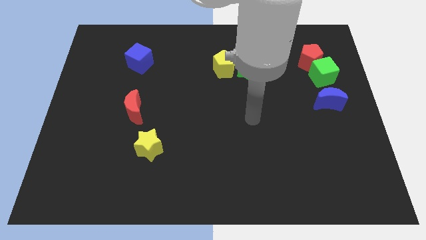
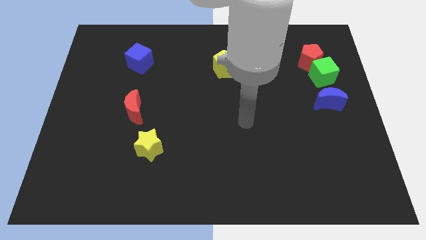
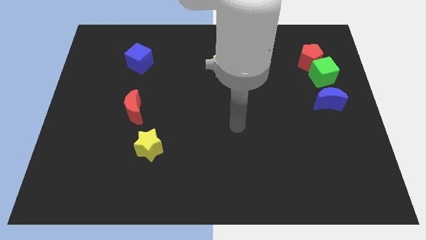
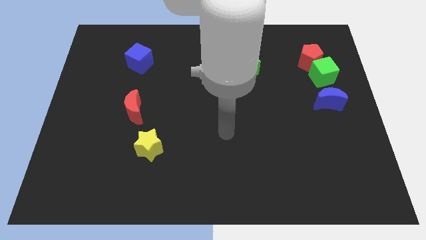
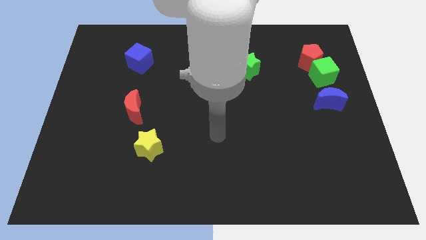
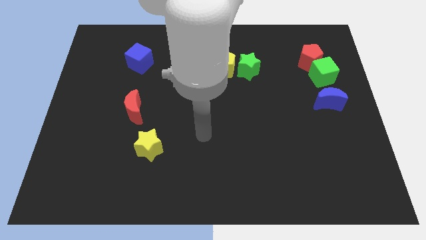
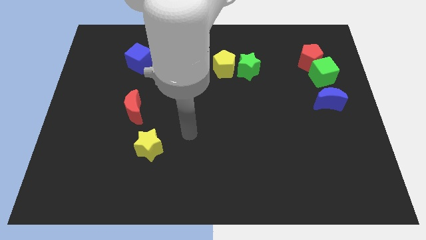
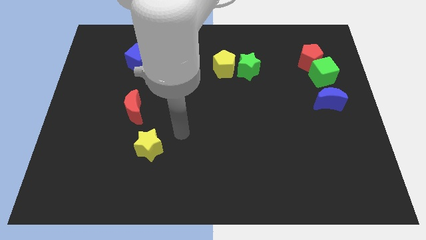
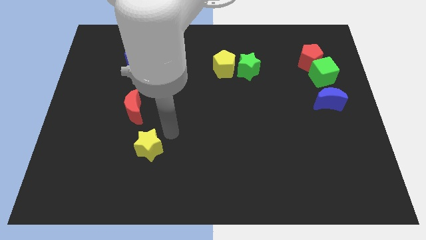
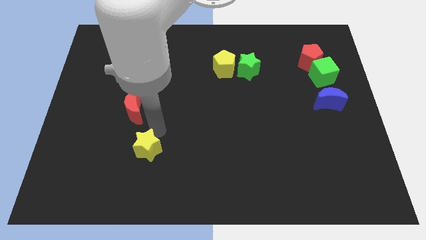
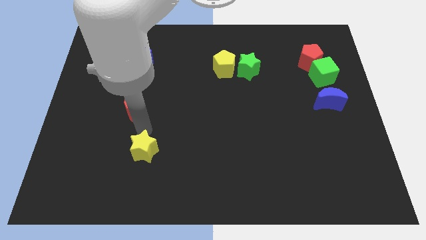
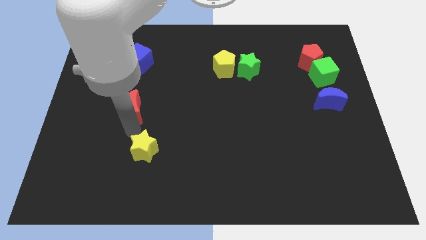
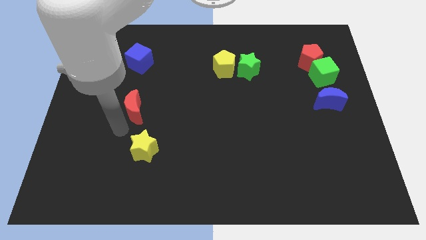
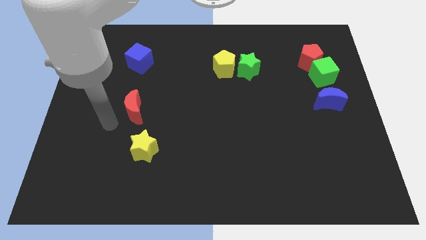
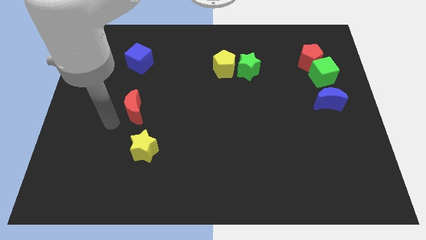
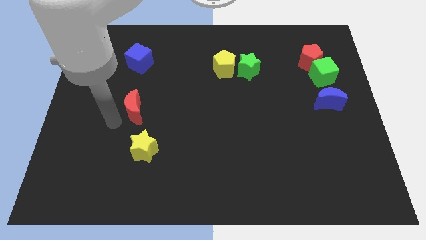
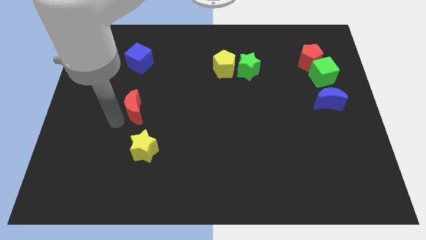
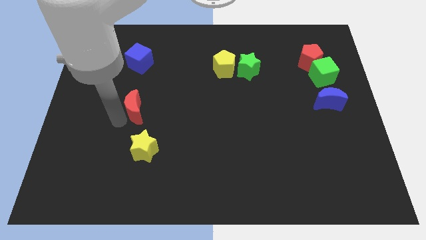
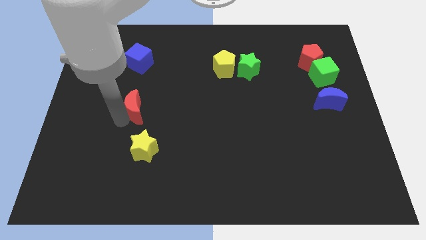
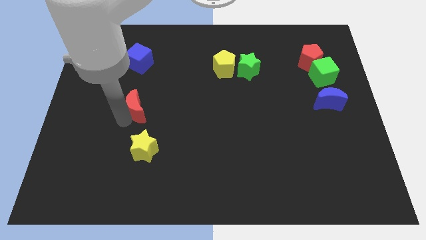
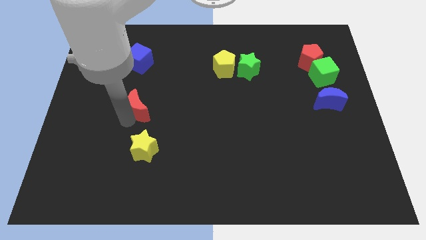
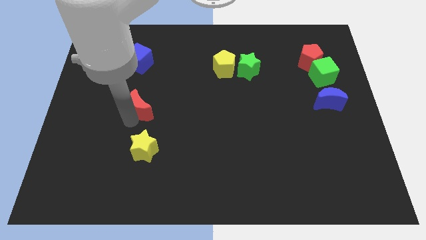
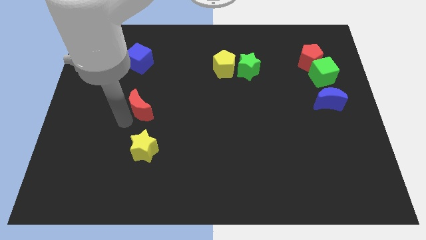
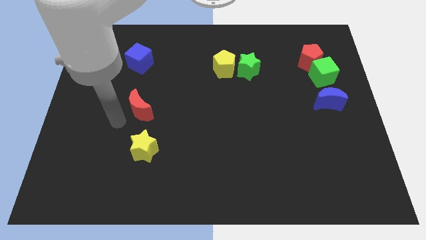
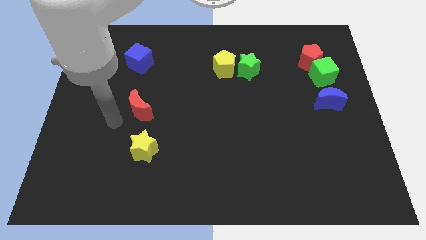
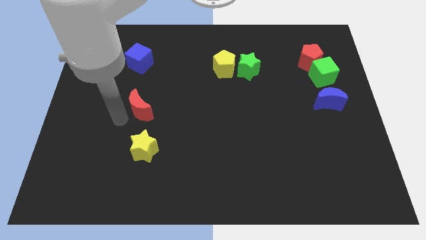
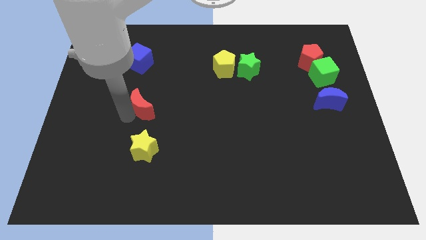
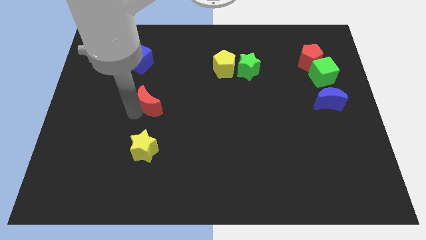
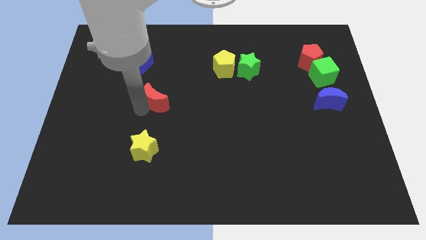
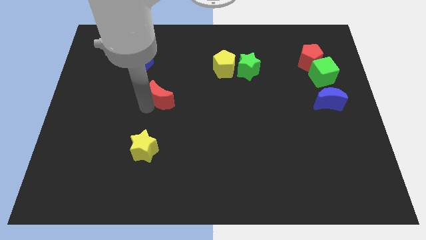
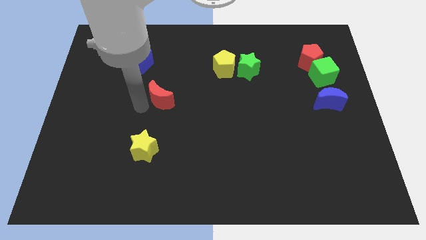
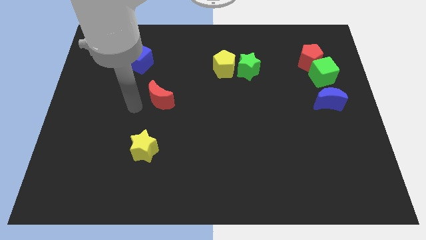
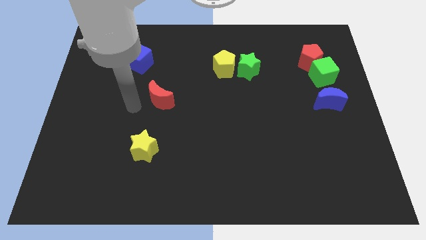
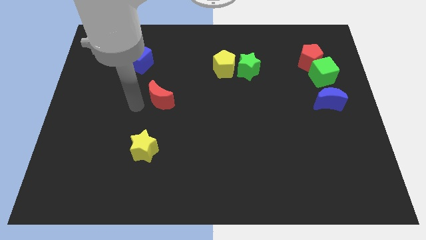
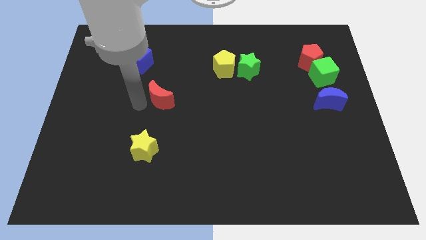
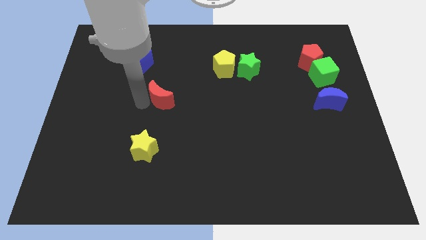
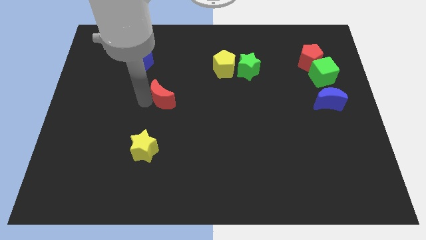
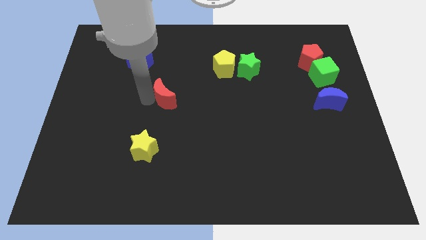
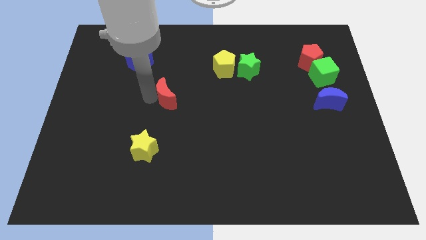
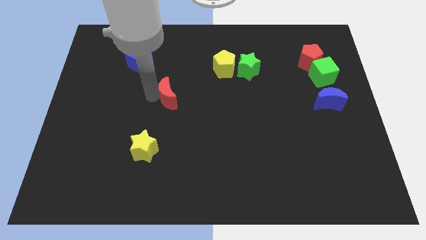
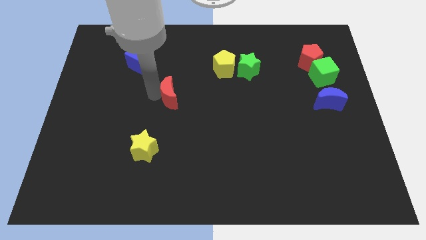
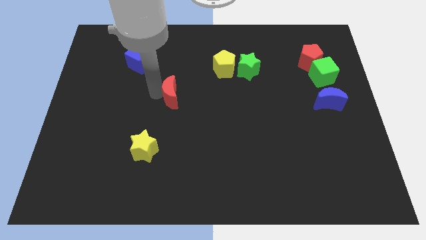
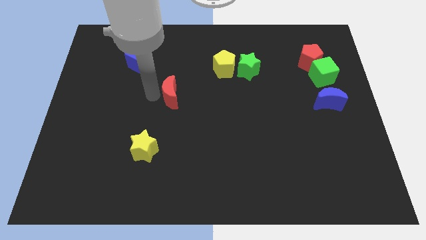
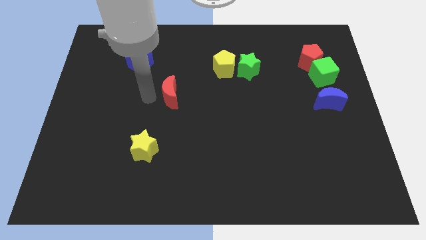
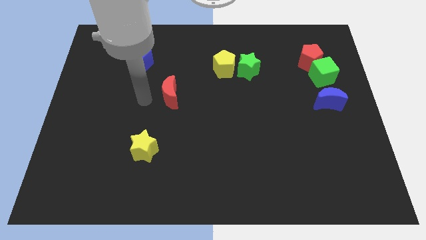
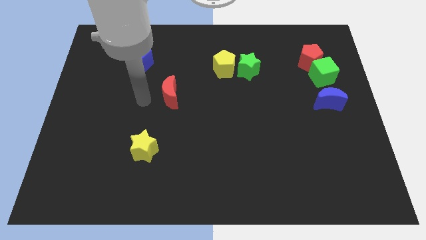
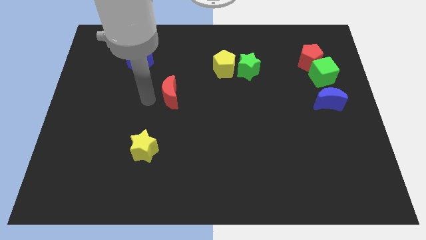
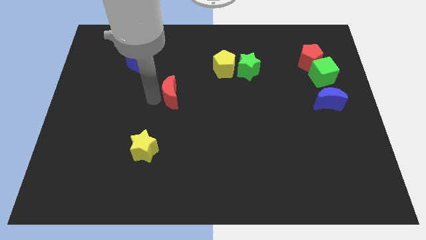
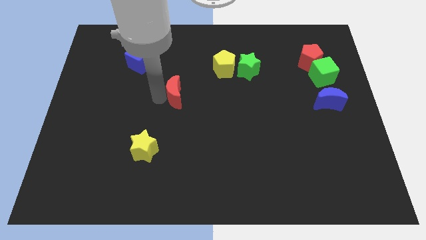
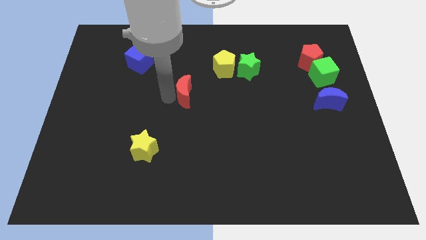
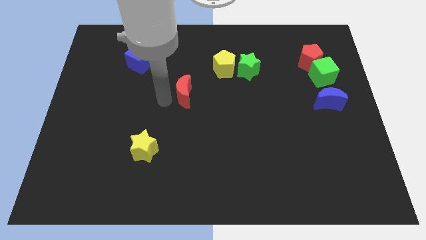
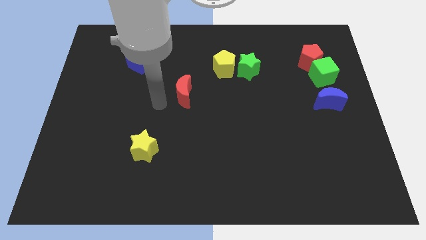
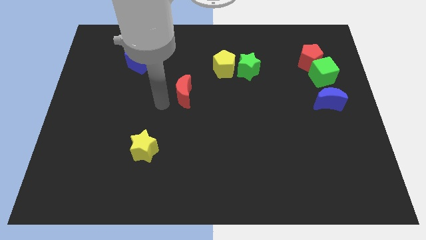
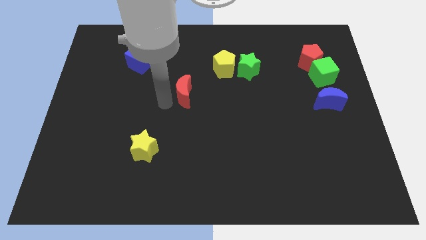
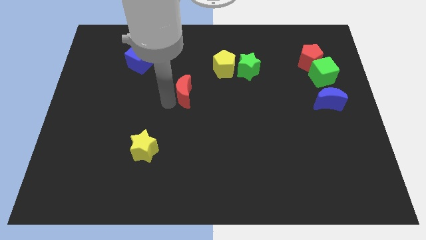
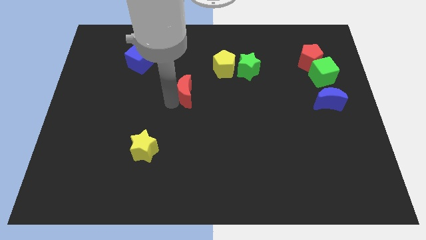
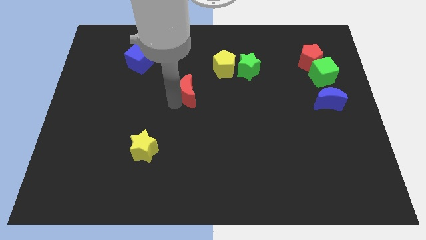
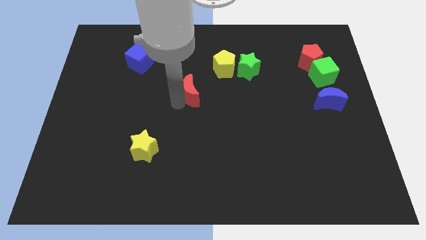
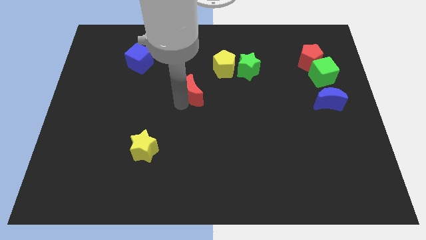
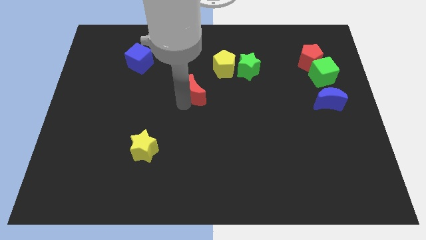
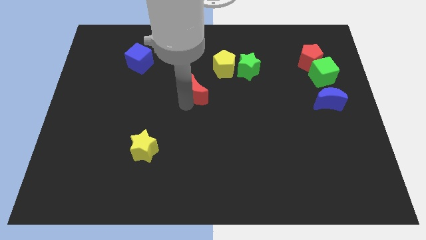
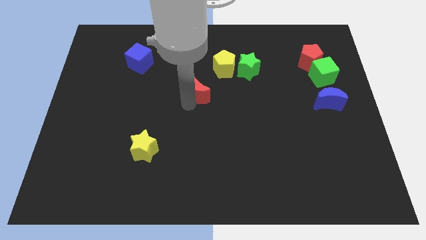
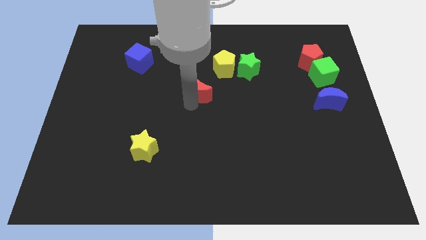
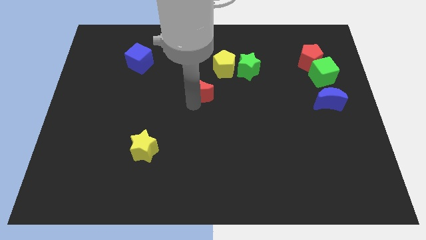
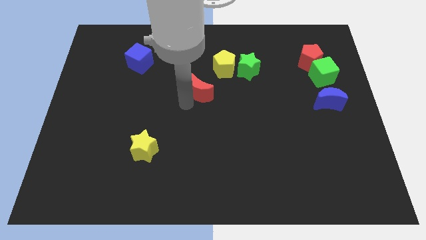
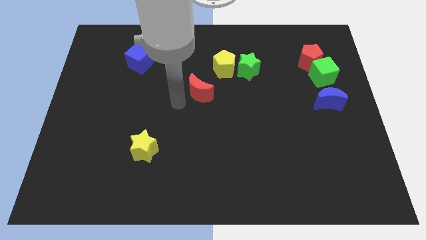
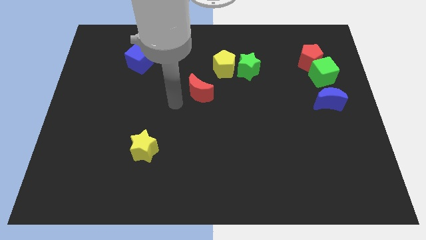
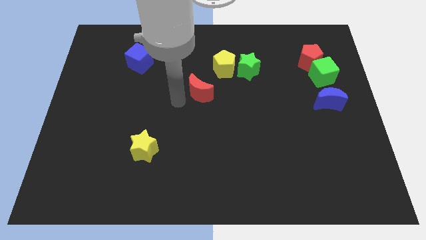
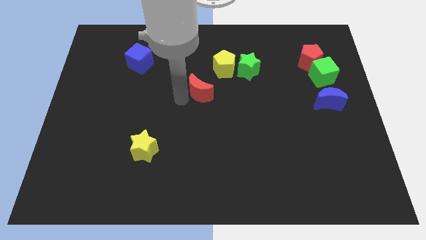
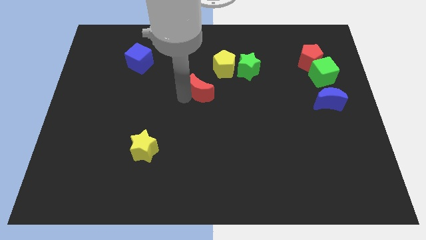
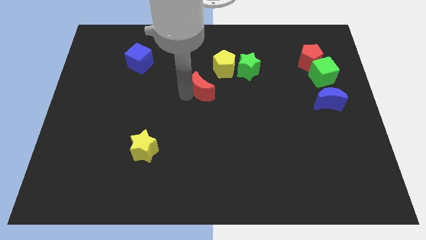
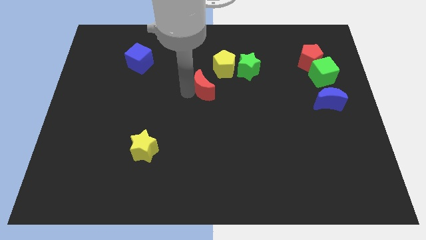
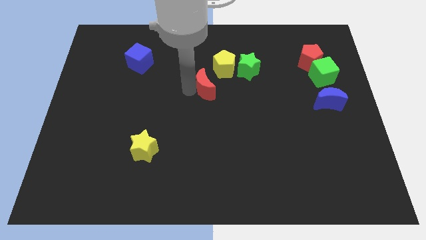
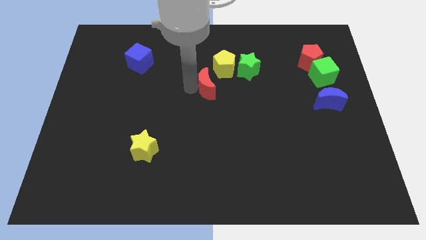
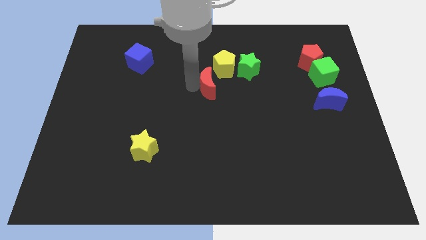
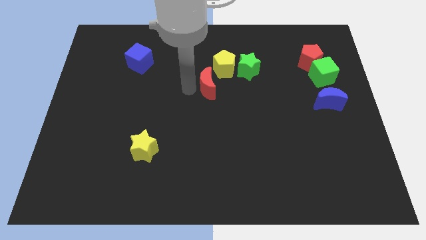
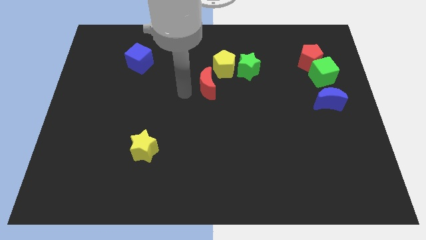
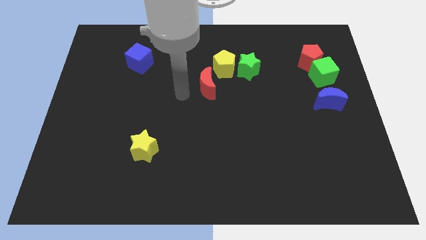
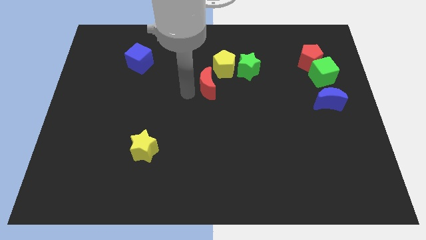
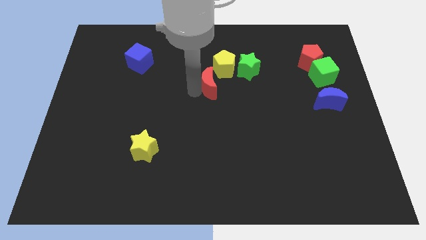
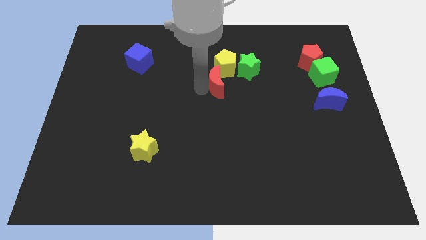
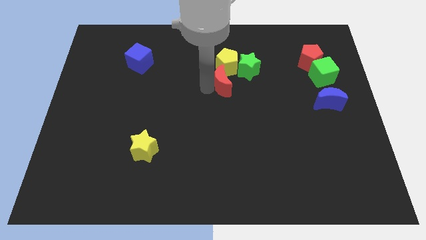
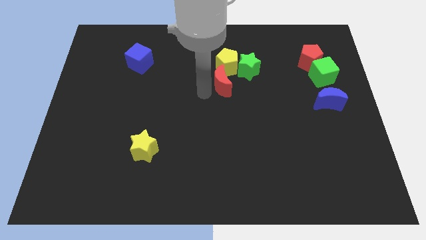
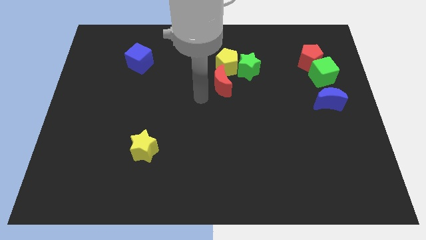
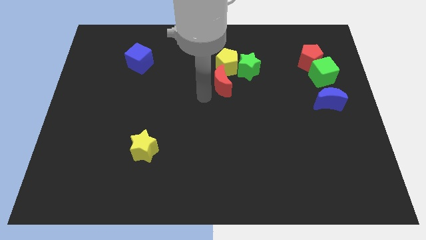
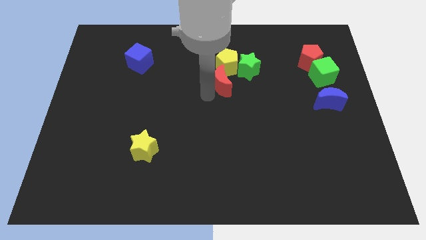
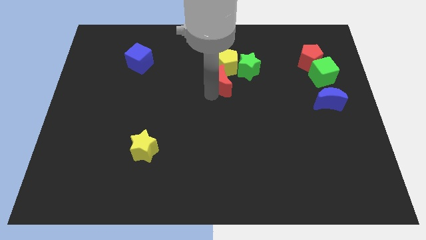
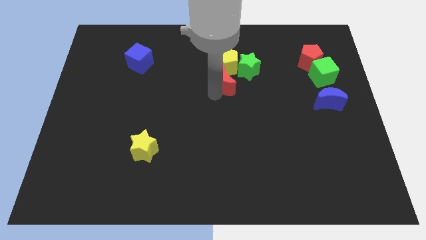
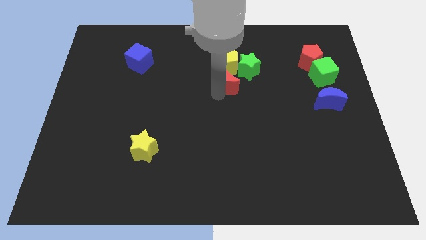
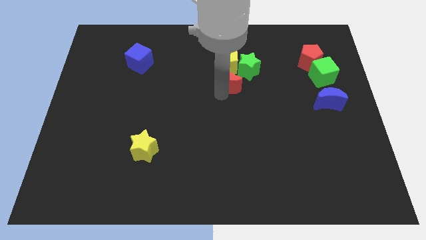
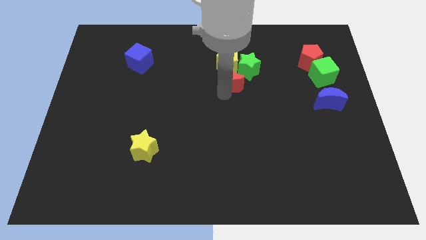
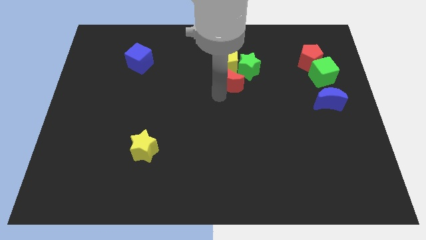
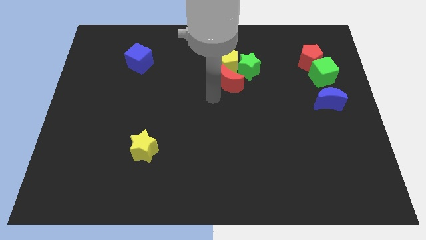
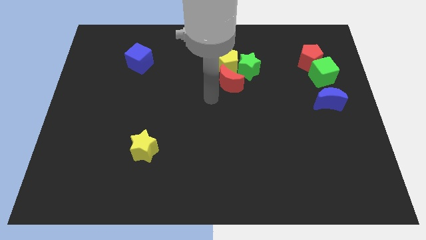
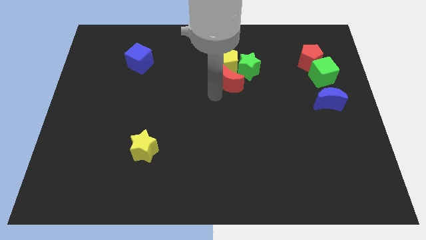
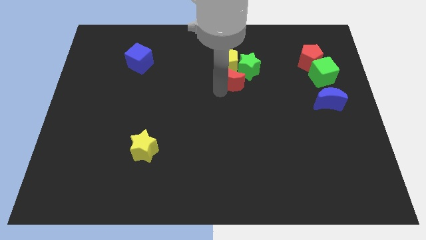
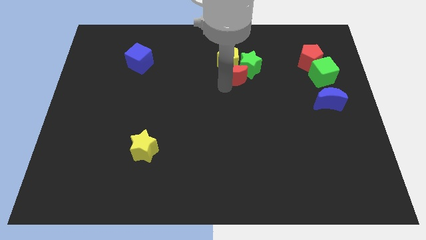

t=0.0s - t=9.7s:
move the red moon towards the green star
